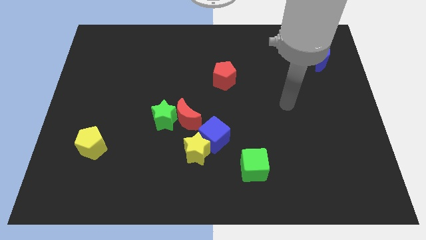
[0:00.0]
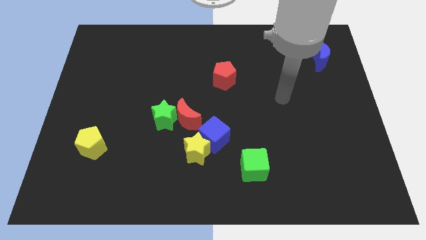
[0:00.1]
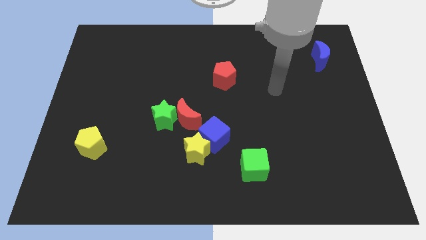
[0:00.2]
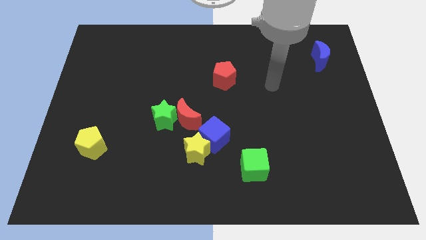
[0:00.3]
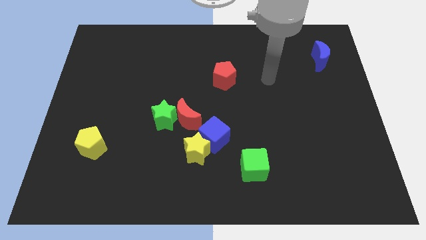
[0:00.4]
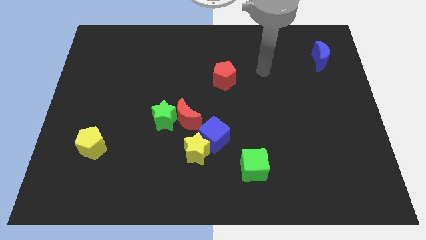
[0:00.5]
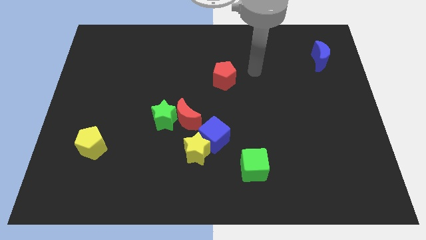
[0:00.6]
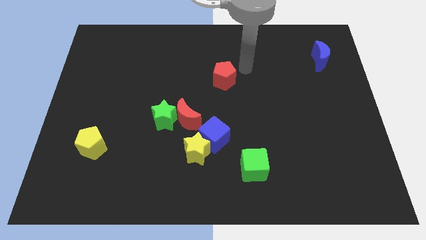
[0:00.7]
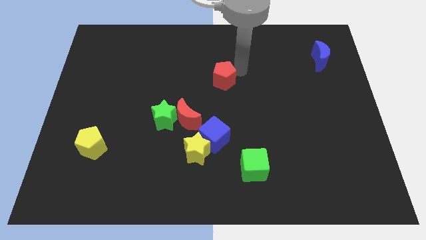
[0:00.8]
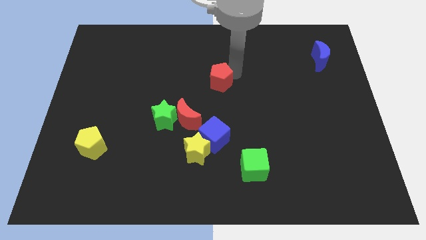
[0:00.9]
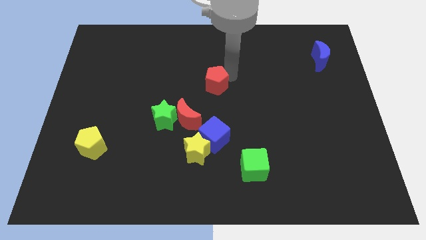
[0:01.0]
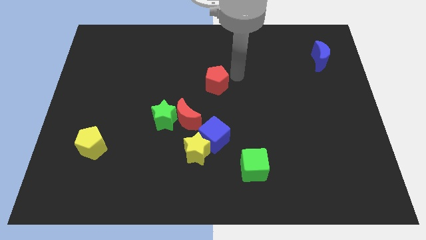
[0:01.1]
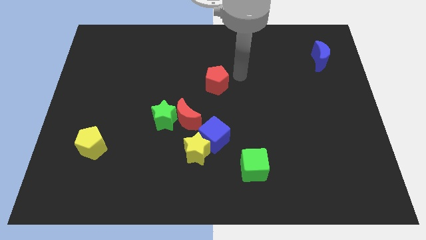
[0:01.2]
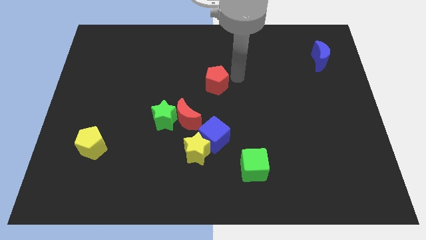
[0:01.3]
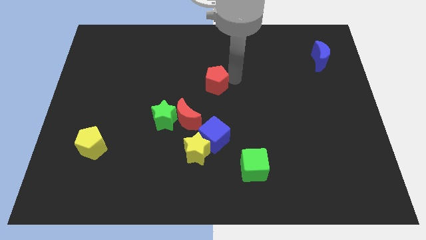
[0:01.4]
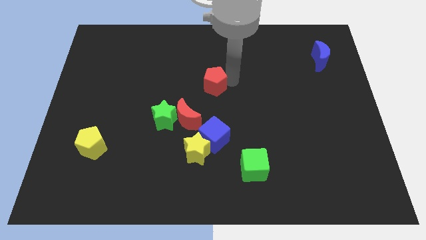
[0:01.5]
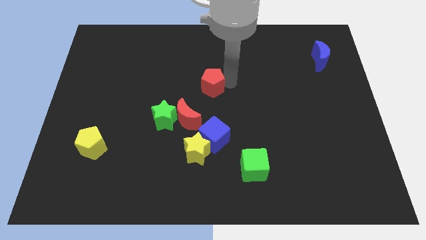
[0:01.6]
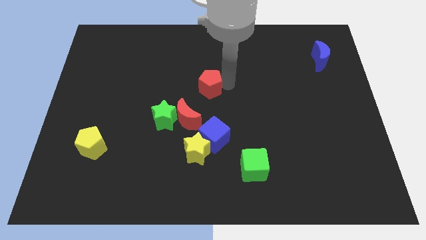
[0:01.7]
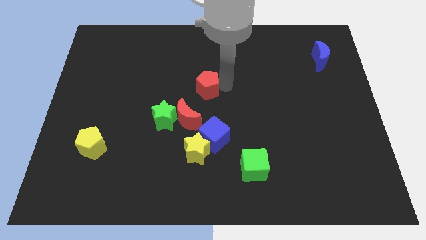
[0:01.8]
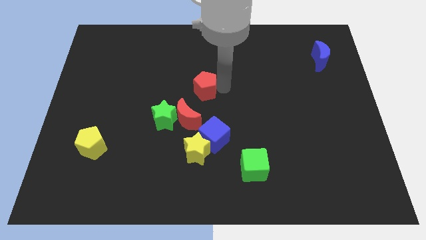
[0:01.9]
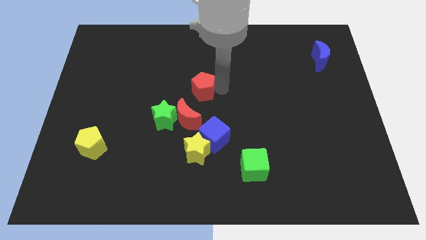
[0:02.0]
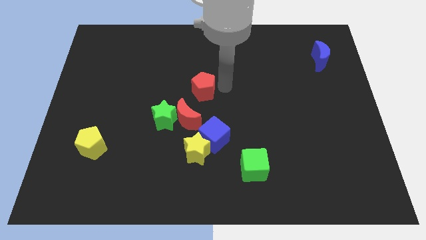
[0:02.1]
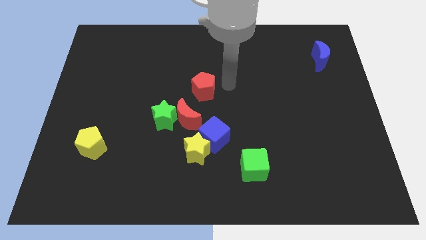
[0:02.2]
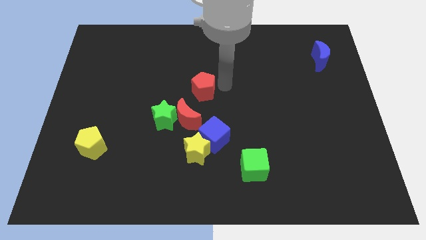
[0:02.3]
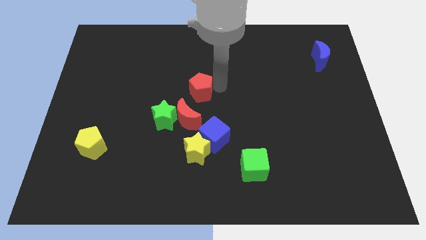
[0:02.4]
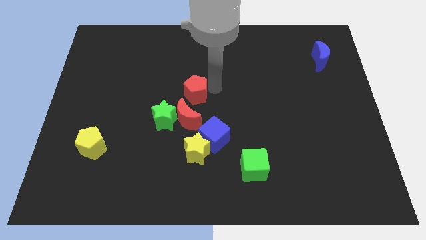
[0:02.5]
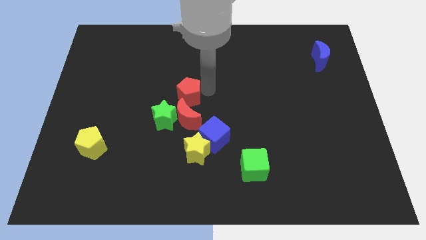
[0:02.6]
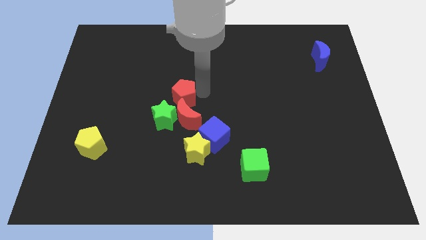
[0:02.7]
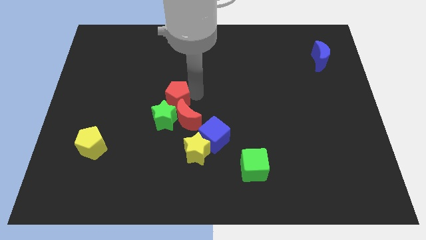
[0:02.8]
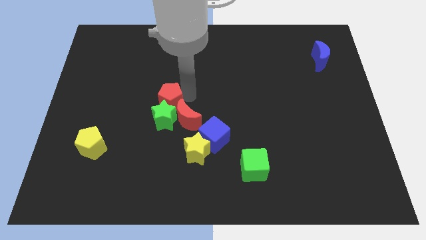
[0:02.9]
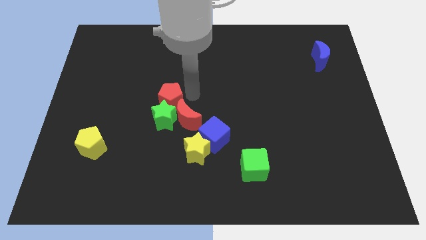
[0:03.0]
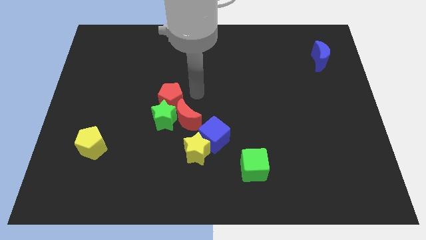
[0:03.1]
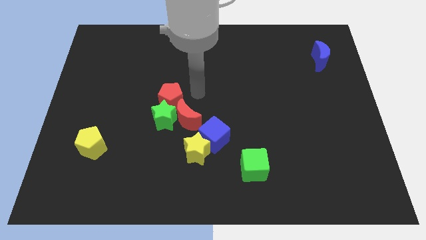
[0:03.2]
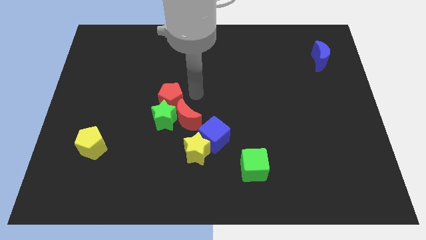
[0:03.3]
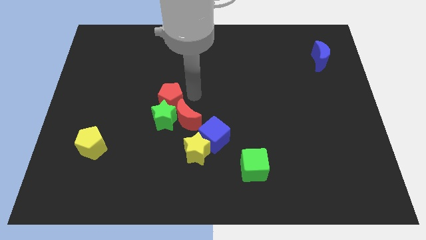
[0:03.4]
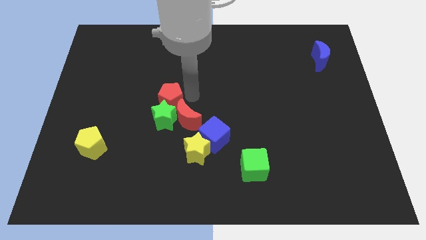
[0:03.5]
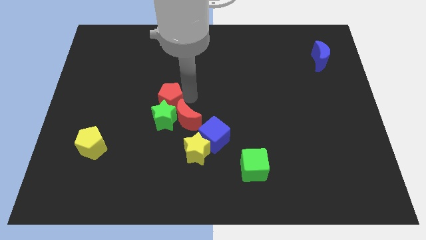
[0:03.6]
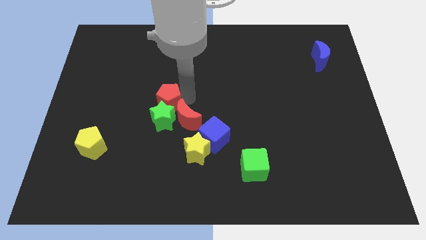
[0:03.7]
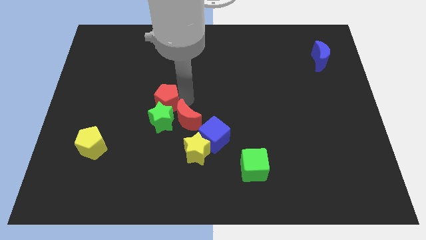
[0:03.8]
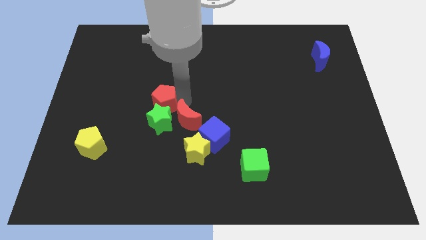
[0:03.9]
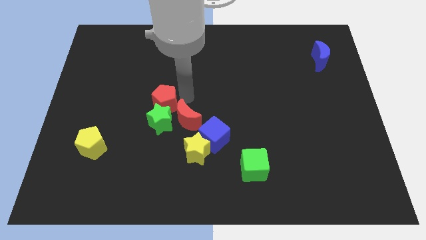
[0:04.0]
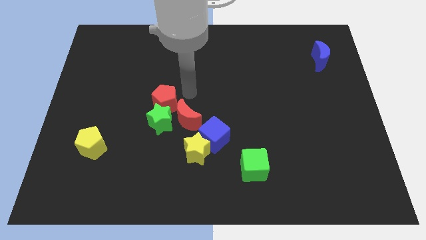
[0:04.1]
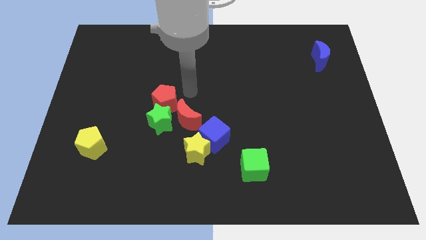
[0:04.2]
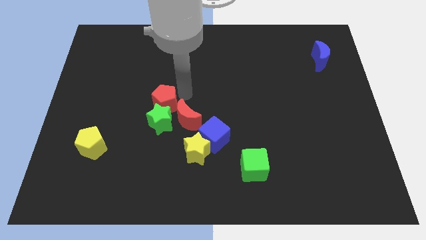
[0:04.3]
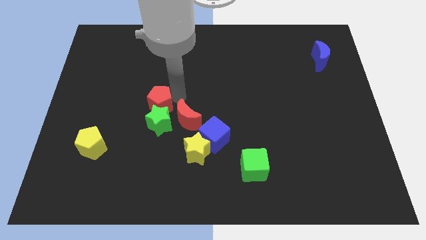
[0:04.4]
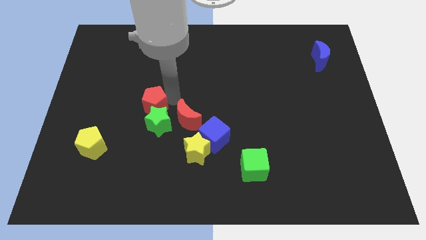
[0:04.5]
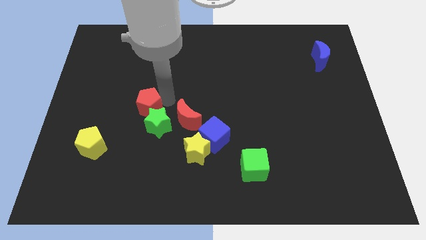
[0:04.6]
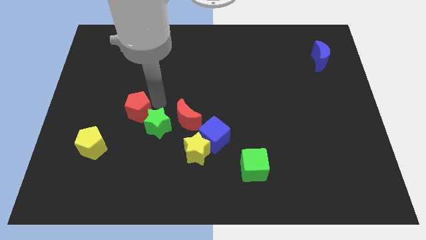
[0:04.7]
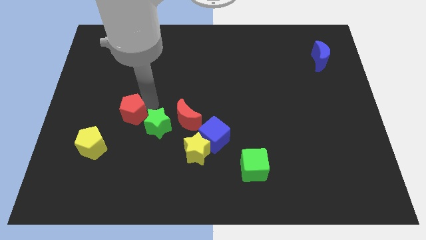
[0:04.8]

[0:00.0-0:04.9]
slide the red pentagon diagonally up and to the right of the yellow pentagon

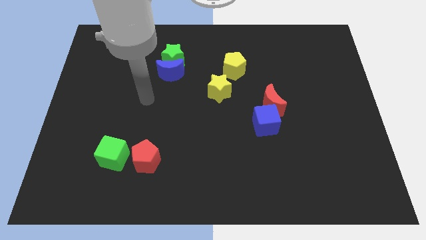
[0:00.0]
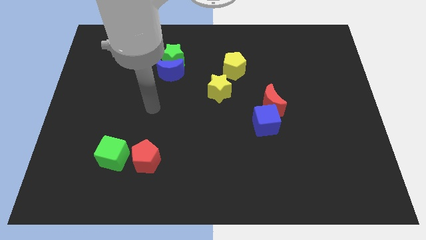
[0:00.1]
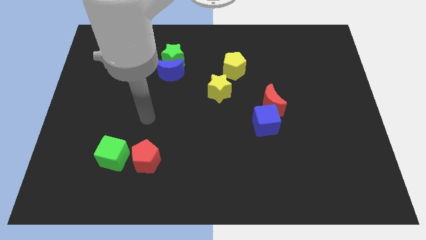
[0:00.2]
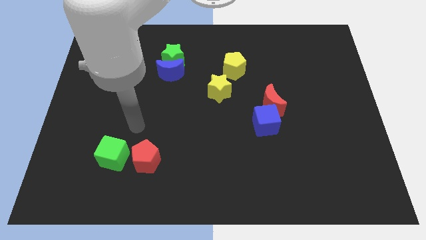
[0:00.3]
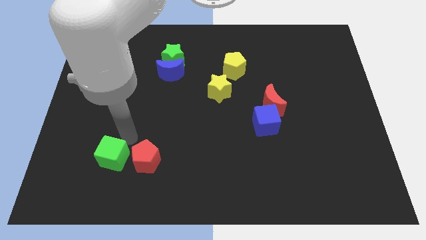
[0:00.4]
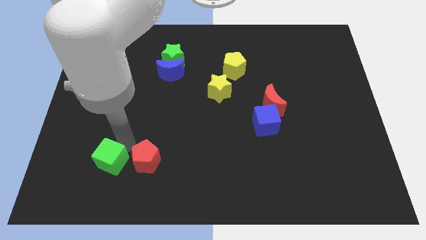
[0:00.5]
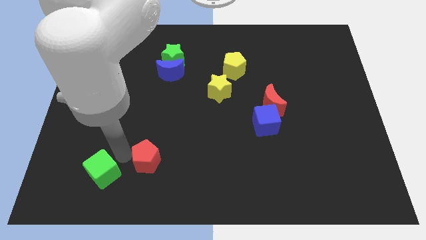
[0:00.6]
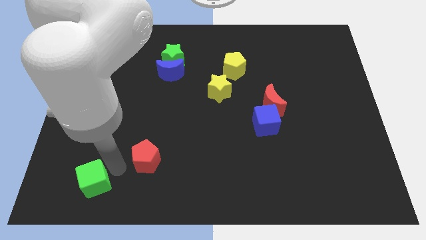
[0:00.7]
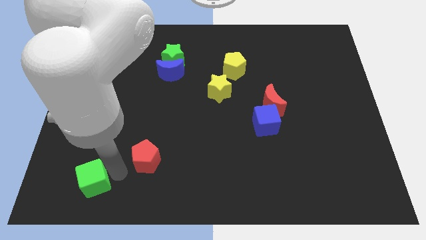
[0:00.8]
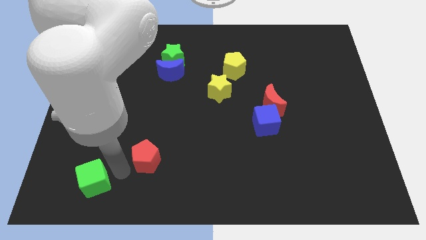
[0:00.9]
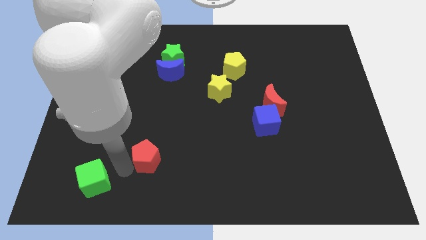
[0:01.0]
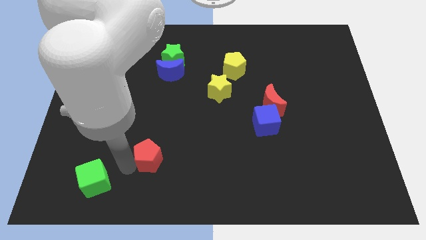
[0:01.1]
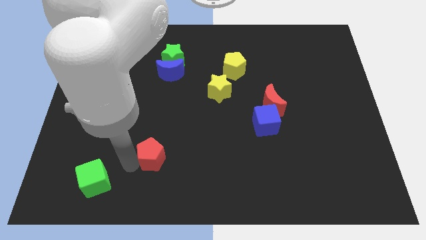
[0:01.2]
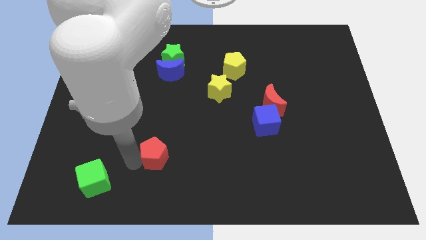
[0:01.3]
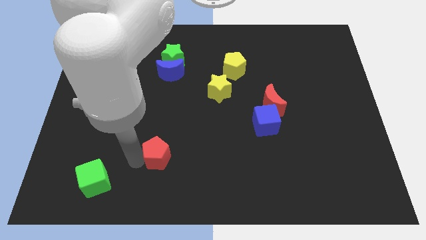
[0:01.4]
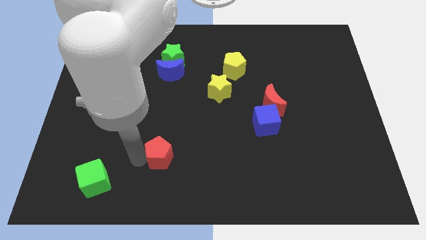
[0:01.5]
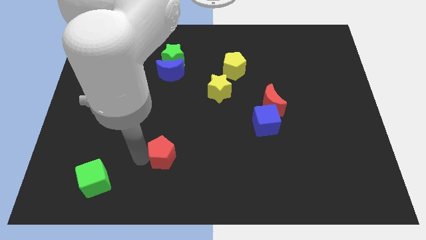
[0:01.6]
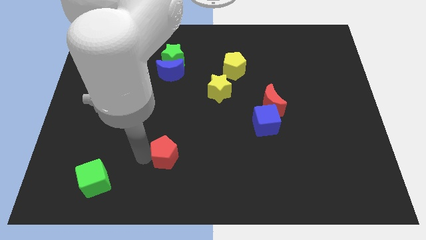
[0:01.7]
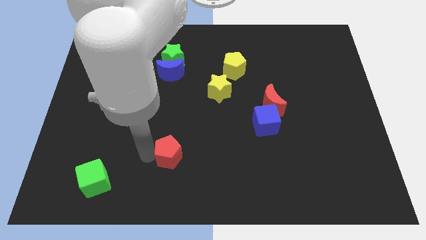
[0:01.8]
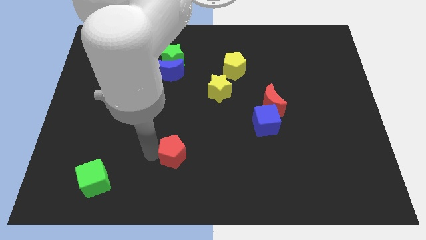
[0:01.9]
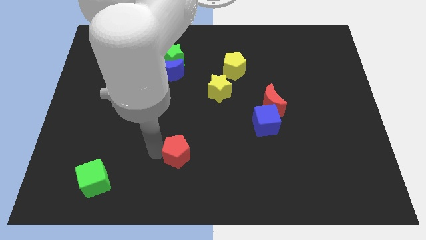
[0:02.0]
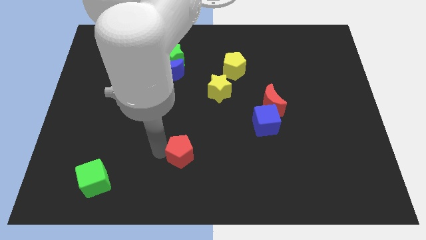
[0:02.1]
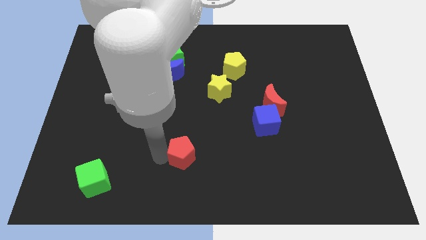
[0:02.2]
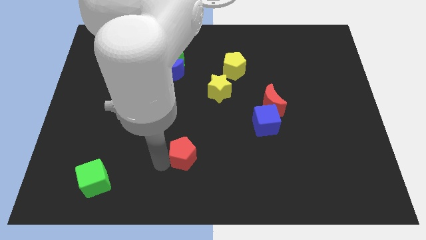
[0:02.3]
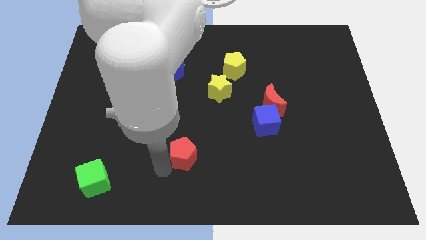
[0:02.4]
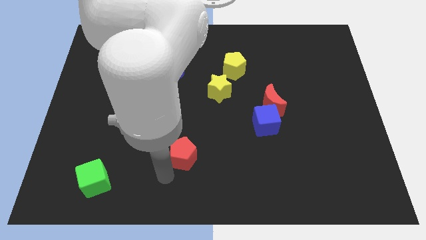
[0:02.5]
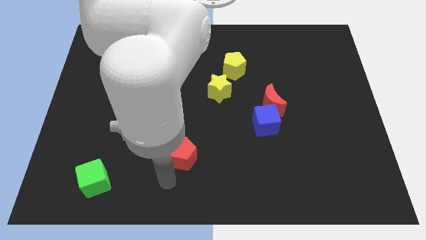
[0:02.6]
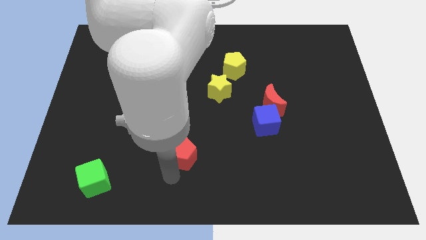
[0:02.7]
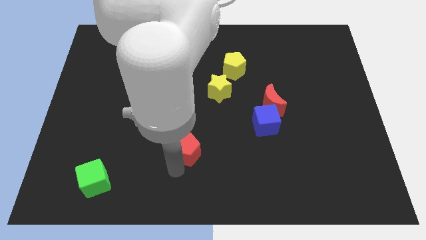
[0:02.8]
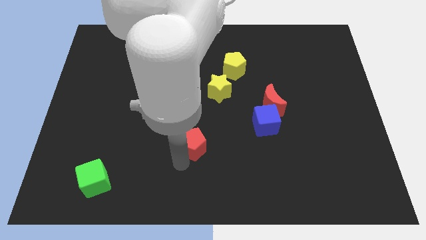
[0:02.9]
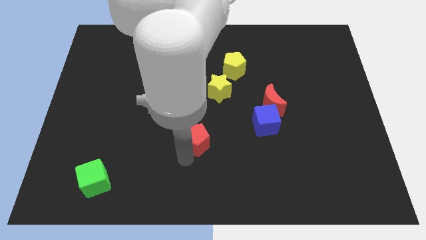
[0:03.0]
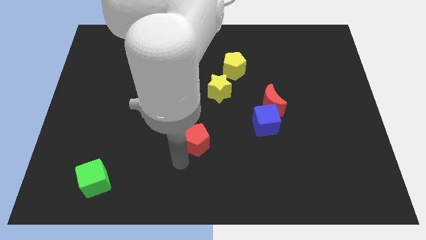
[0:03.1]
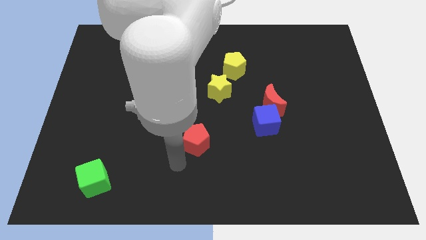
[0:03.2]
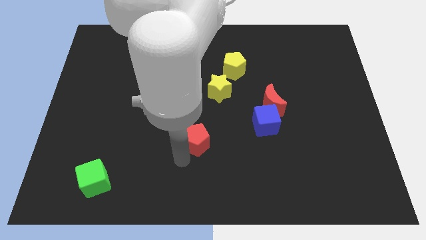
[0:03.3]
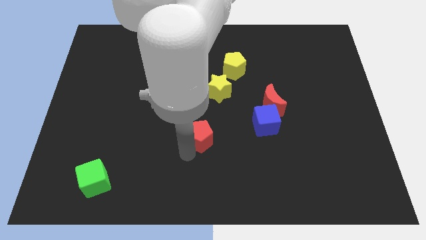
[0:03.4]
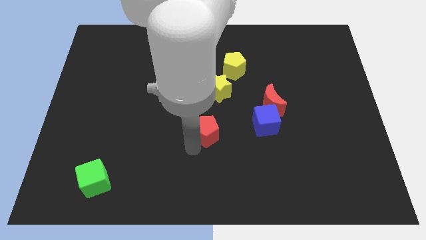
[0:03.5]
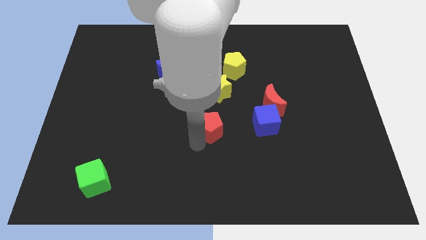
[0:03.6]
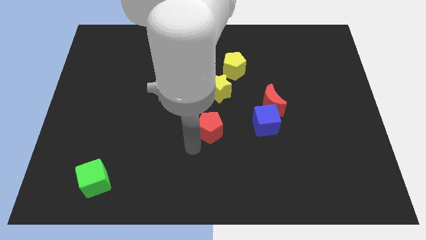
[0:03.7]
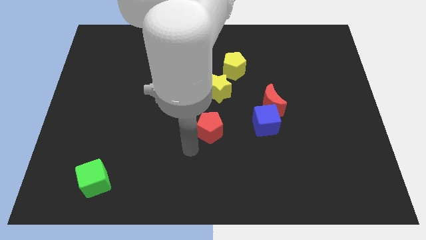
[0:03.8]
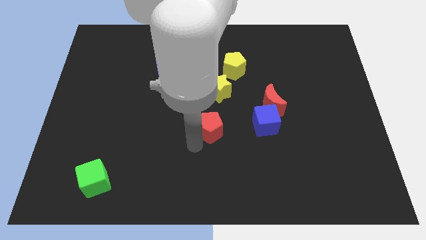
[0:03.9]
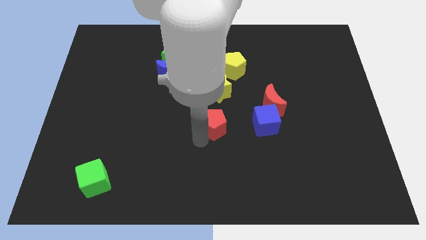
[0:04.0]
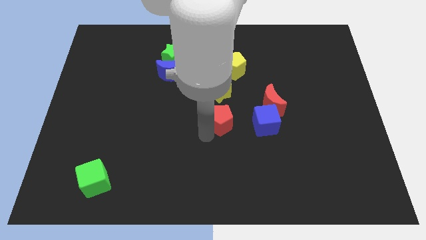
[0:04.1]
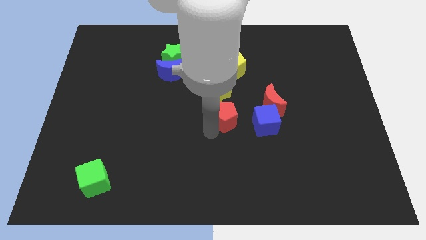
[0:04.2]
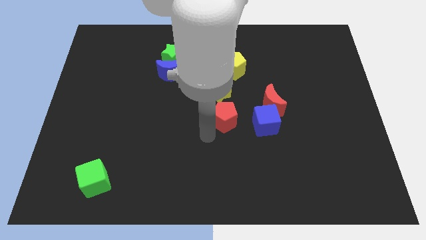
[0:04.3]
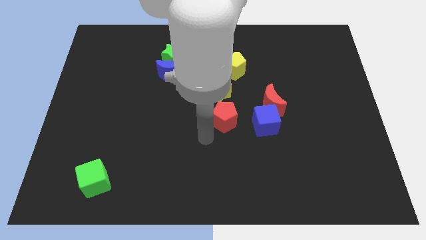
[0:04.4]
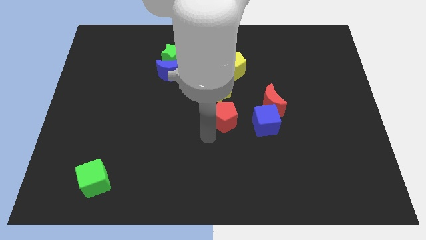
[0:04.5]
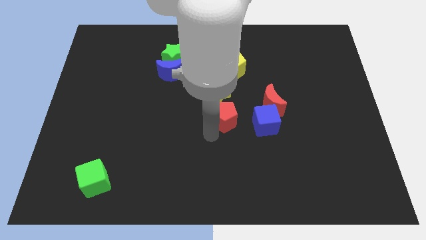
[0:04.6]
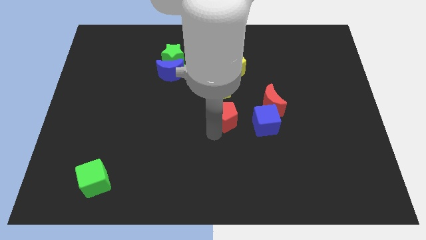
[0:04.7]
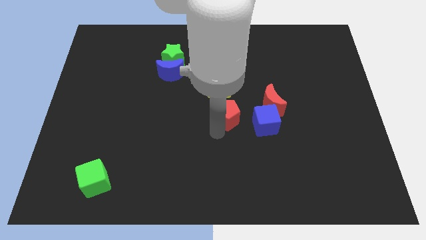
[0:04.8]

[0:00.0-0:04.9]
move the red pentagon diagonally up and to the left of the blue cube
